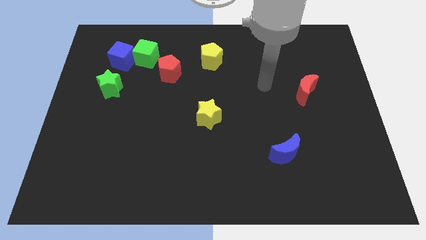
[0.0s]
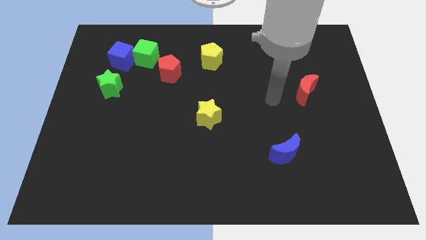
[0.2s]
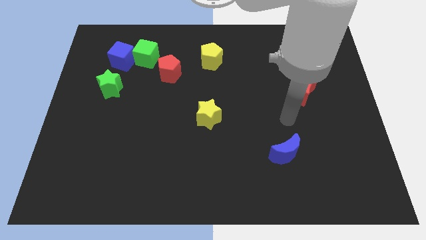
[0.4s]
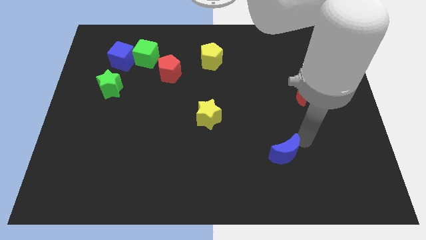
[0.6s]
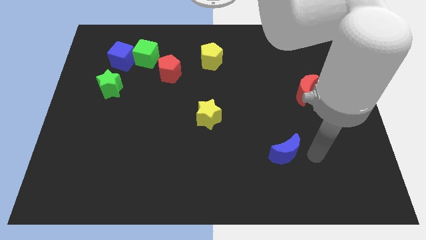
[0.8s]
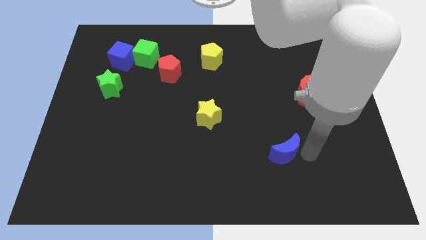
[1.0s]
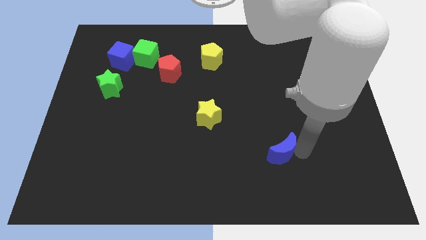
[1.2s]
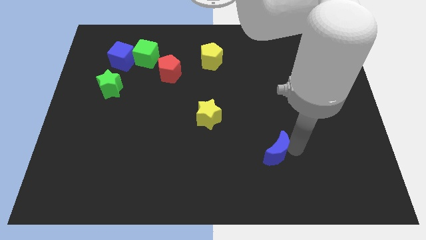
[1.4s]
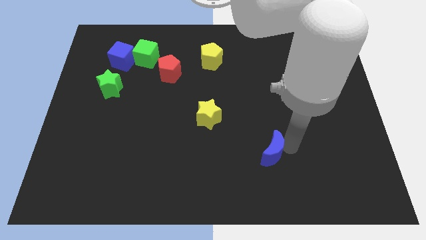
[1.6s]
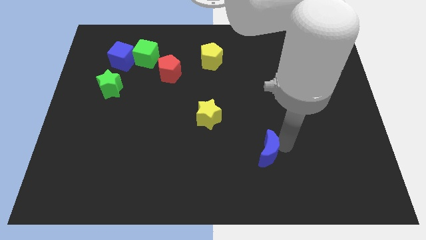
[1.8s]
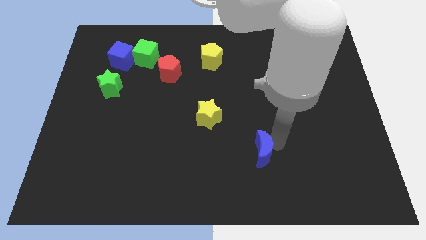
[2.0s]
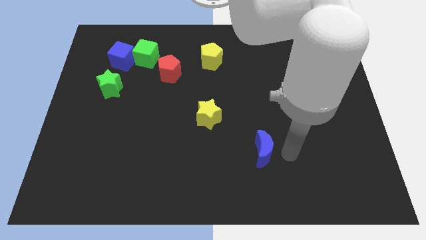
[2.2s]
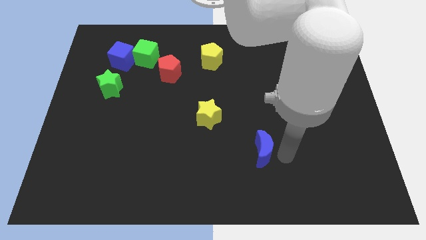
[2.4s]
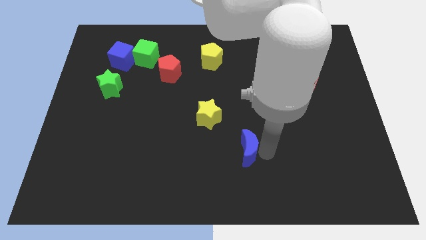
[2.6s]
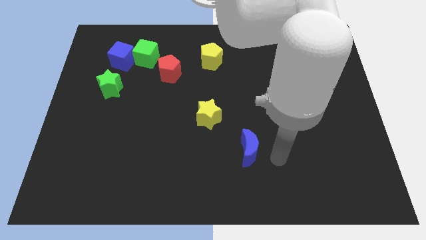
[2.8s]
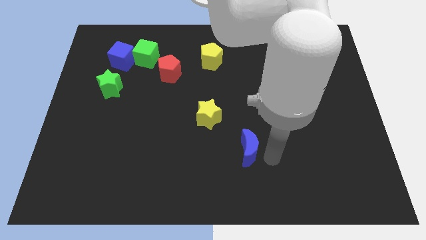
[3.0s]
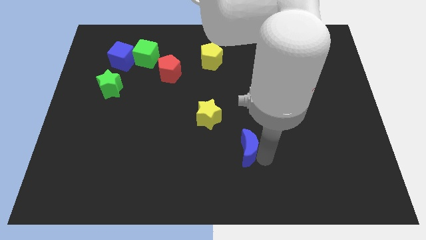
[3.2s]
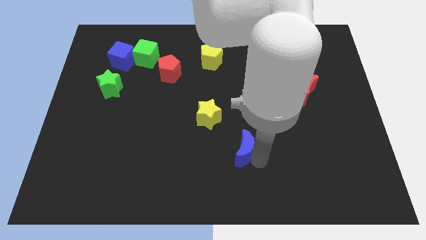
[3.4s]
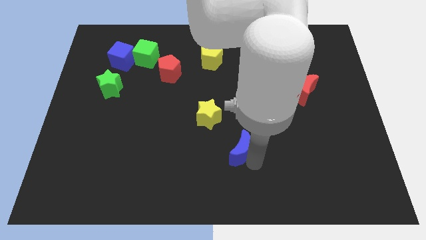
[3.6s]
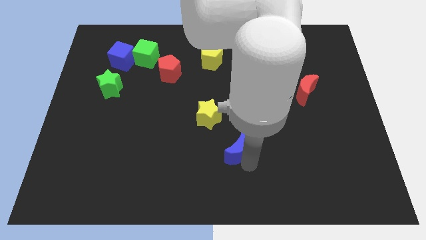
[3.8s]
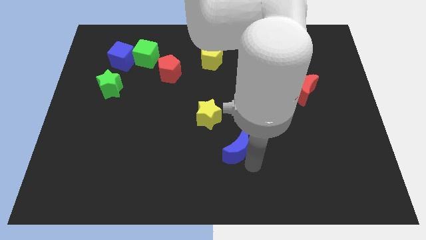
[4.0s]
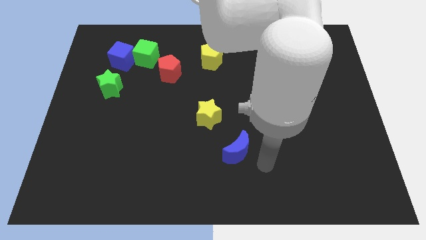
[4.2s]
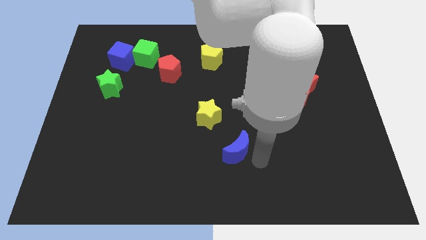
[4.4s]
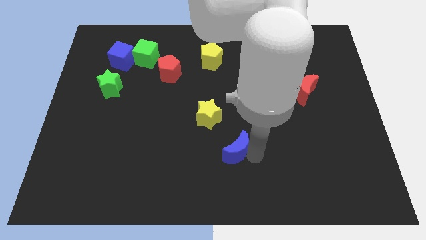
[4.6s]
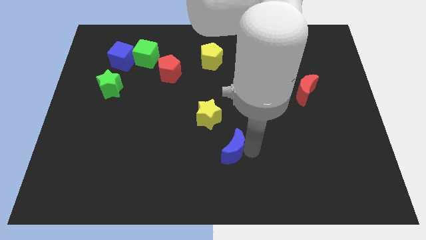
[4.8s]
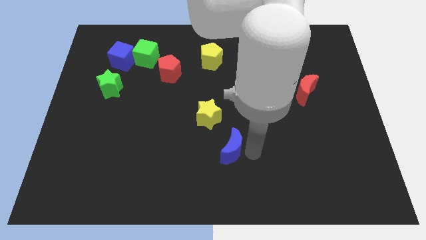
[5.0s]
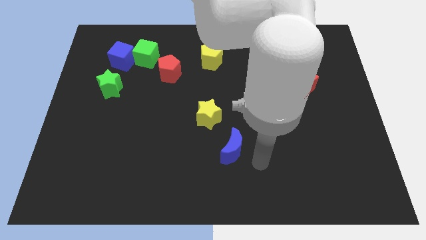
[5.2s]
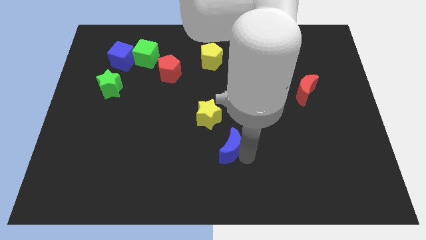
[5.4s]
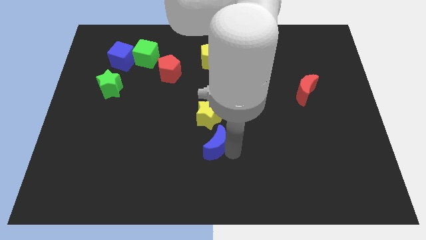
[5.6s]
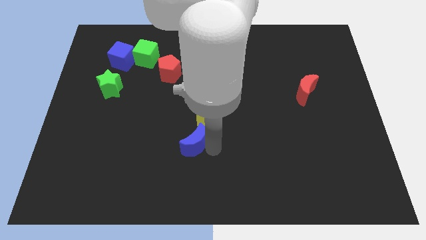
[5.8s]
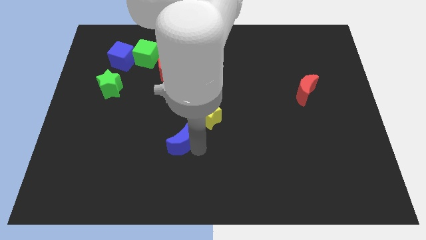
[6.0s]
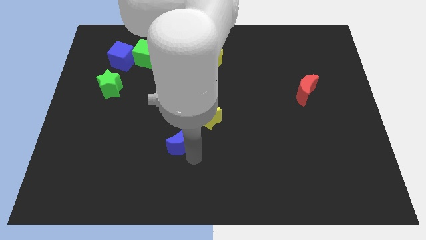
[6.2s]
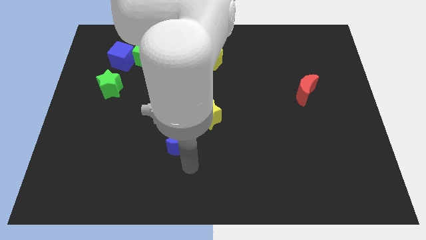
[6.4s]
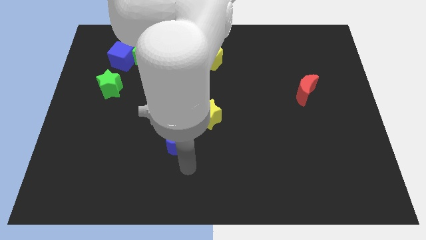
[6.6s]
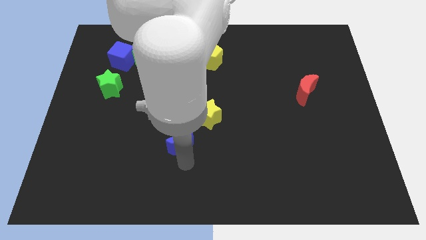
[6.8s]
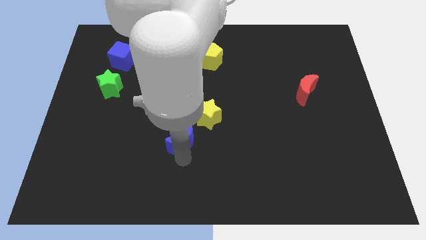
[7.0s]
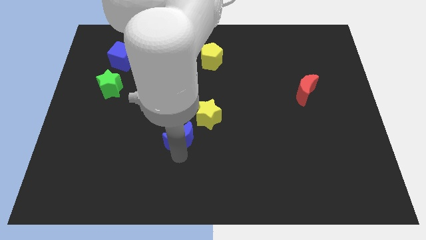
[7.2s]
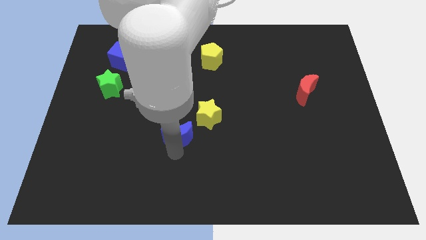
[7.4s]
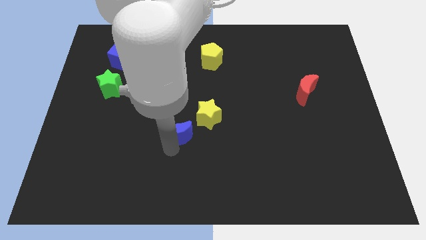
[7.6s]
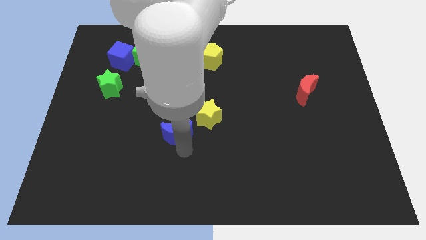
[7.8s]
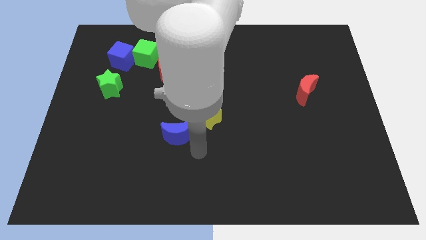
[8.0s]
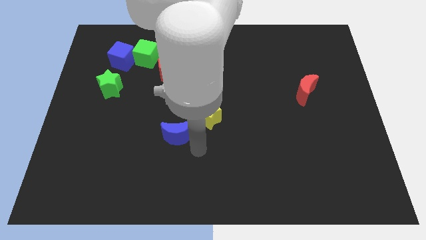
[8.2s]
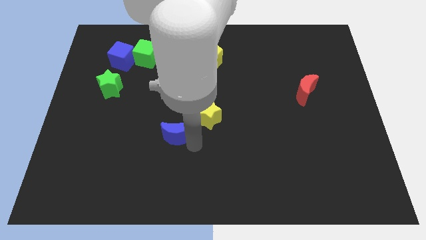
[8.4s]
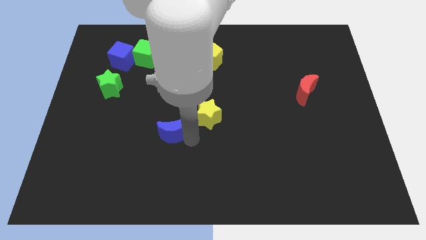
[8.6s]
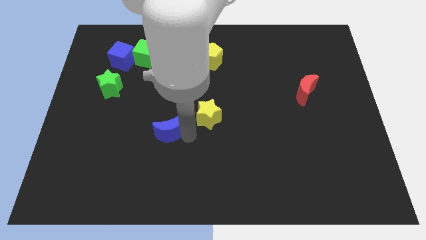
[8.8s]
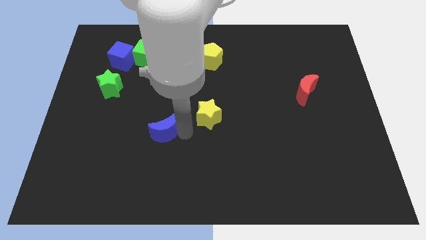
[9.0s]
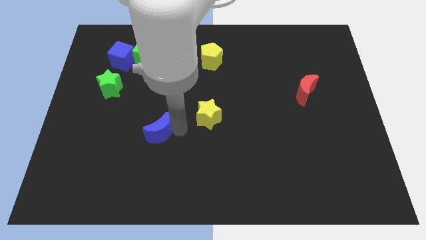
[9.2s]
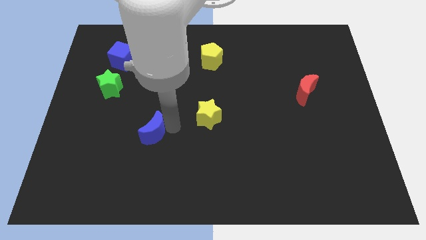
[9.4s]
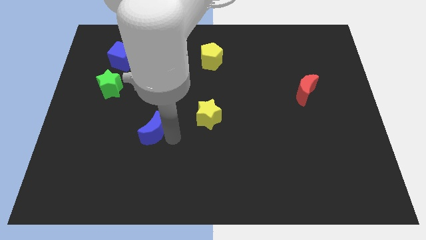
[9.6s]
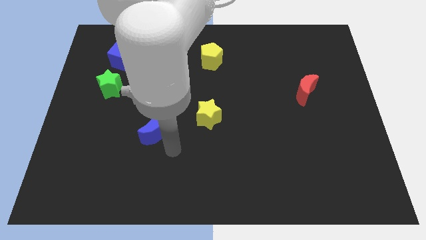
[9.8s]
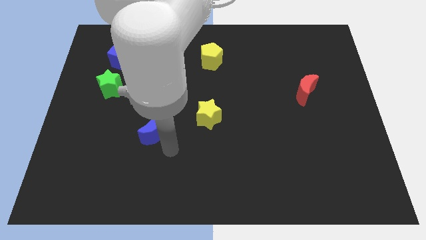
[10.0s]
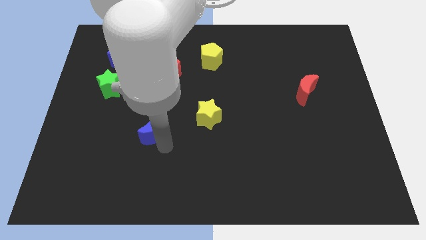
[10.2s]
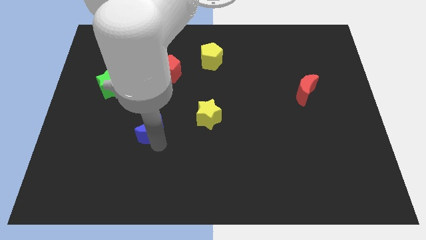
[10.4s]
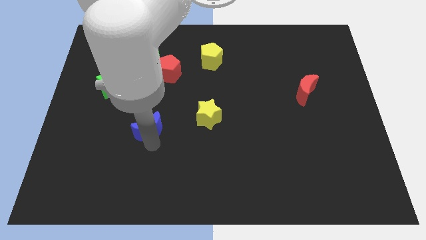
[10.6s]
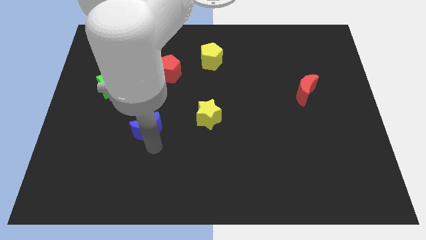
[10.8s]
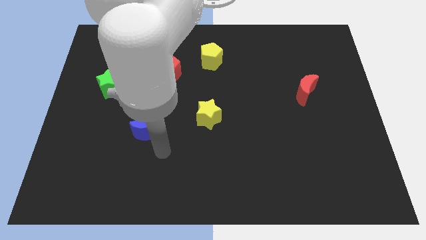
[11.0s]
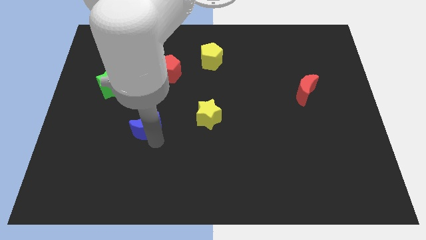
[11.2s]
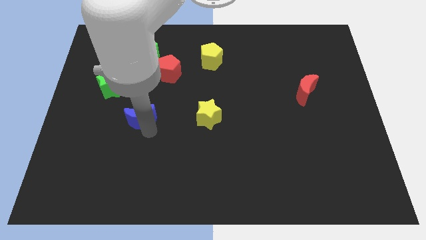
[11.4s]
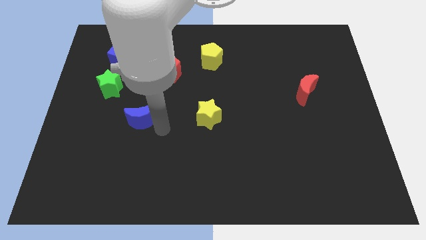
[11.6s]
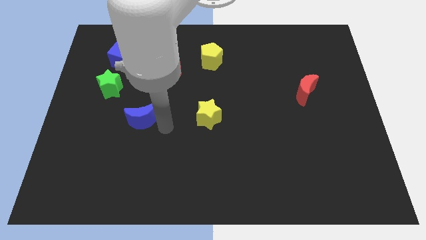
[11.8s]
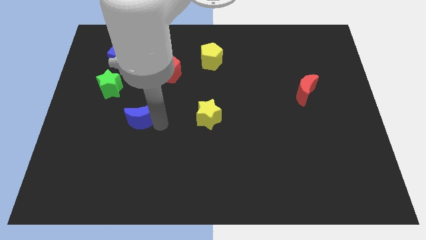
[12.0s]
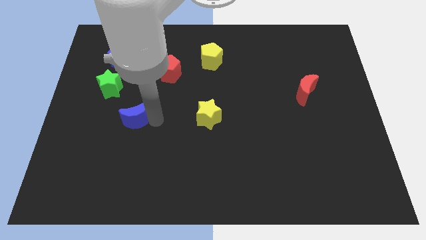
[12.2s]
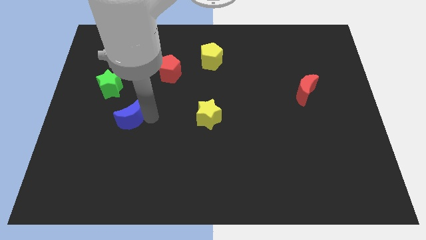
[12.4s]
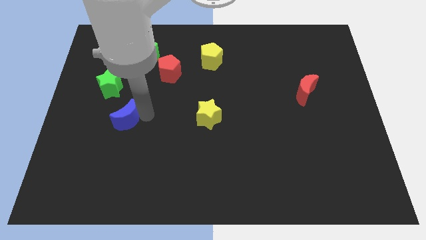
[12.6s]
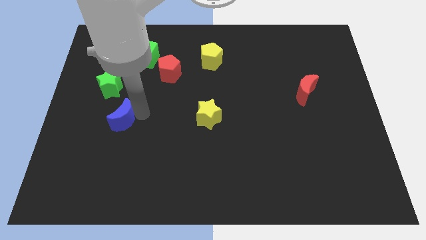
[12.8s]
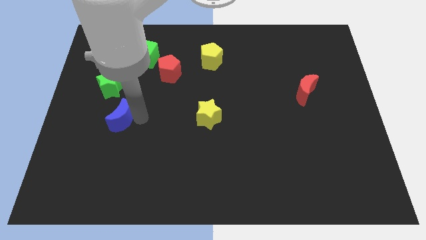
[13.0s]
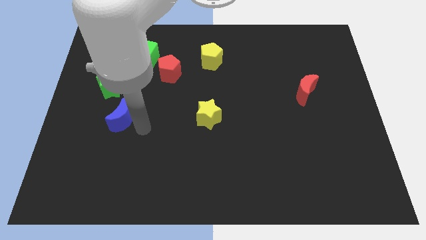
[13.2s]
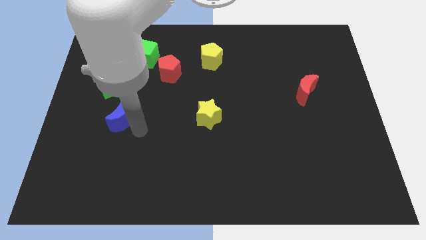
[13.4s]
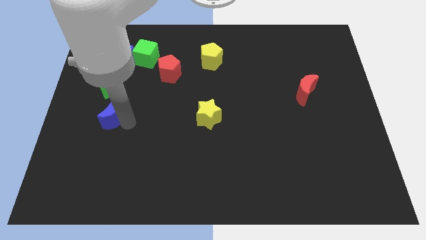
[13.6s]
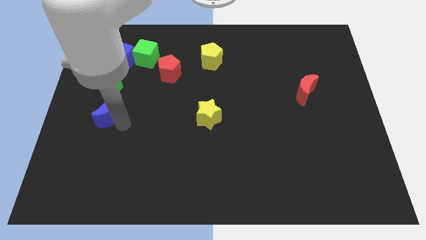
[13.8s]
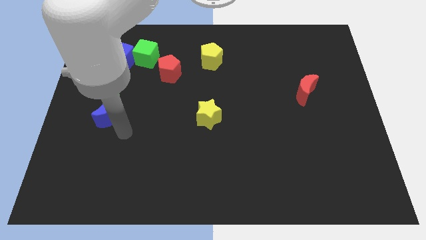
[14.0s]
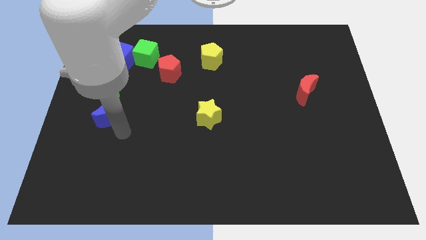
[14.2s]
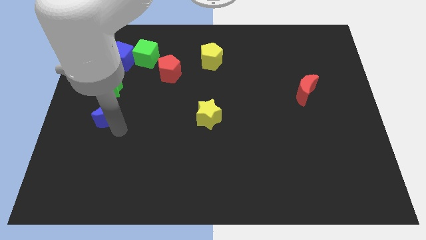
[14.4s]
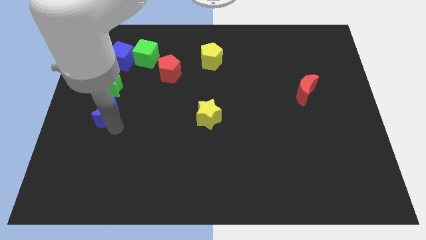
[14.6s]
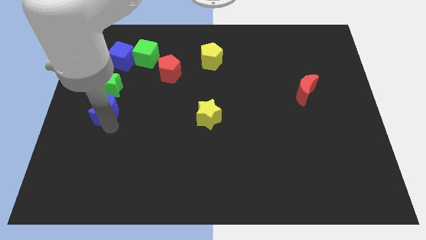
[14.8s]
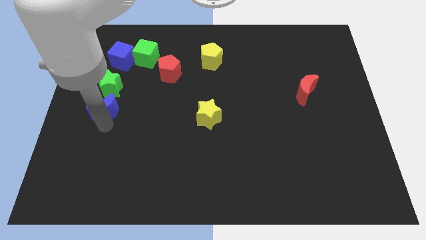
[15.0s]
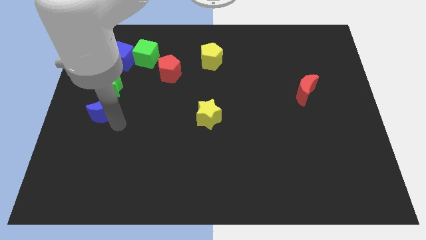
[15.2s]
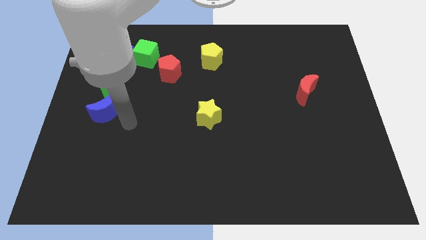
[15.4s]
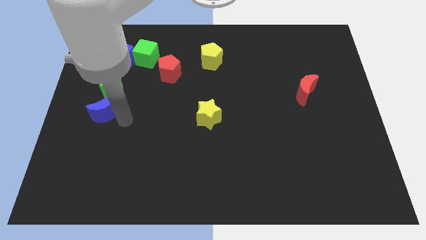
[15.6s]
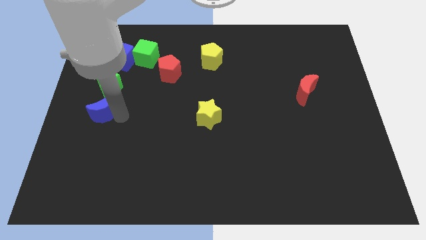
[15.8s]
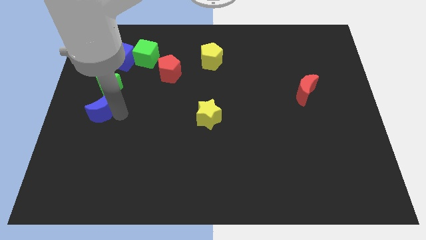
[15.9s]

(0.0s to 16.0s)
put the blue moon to the left side
